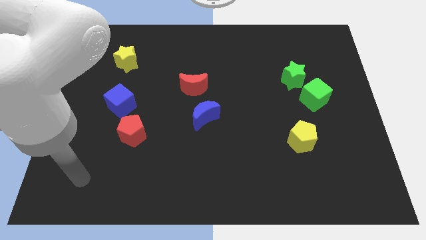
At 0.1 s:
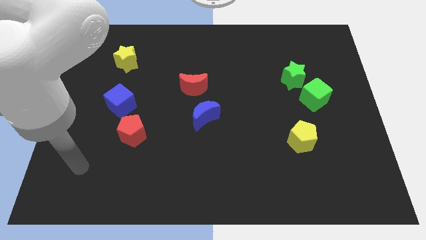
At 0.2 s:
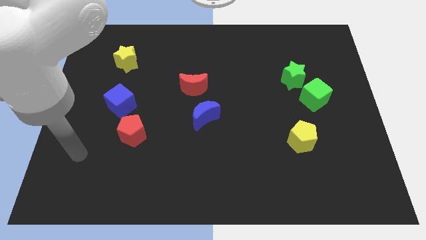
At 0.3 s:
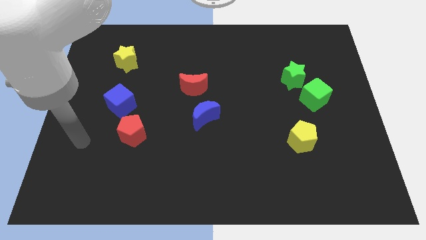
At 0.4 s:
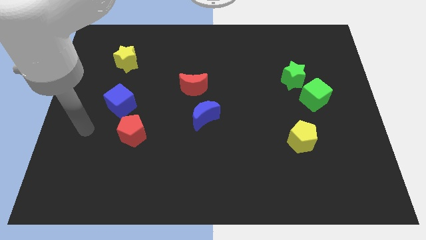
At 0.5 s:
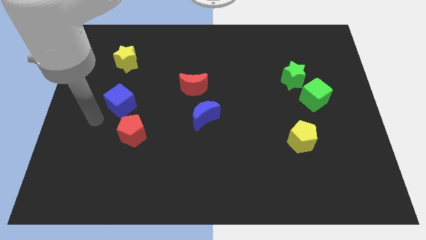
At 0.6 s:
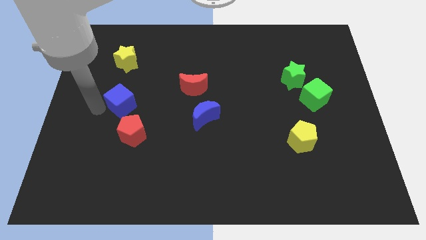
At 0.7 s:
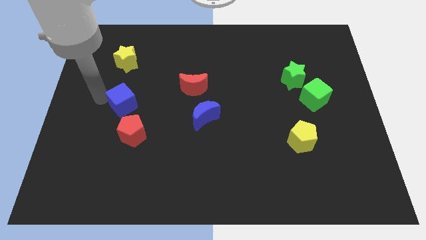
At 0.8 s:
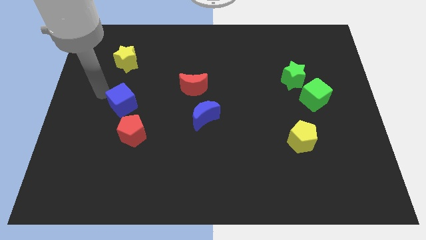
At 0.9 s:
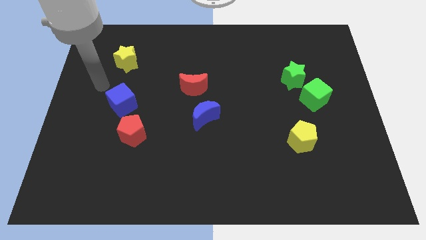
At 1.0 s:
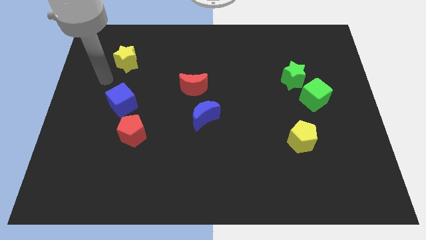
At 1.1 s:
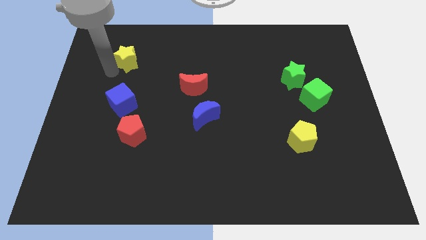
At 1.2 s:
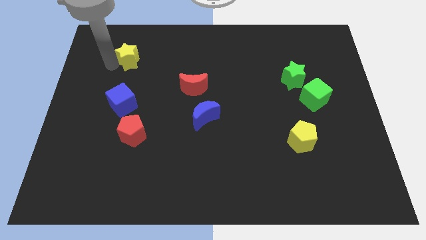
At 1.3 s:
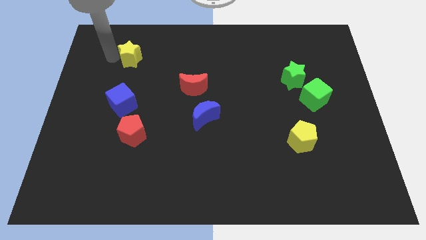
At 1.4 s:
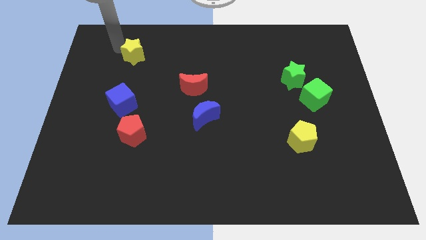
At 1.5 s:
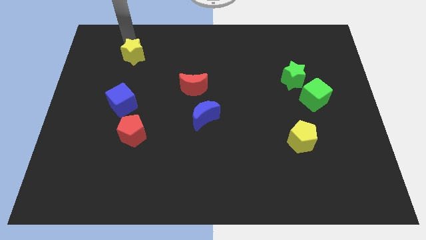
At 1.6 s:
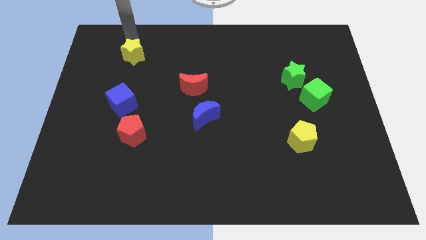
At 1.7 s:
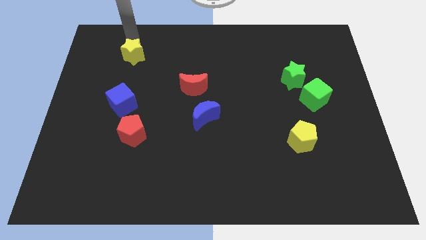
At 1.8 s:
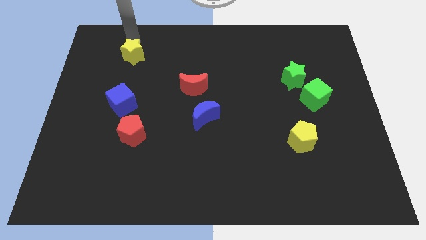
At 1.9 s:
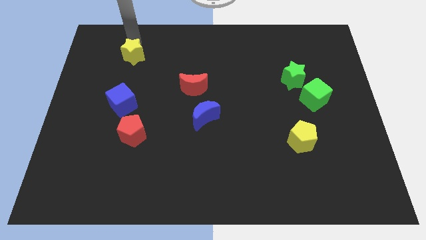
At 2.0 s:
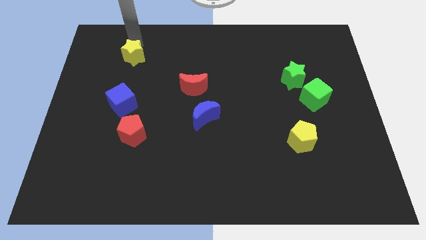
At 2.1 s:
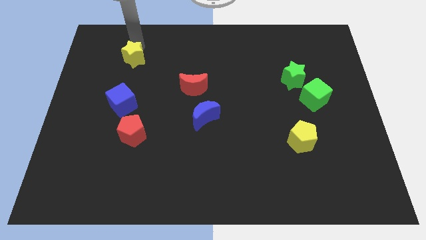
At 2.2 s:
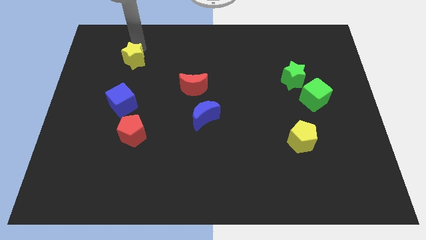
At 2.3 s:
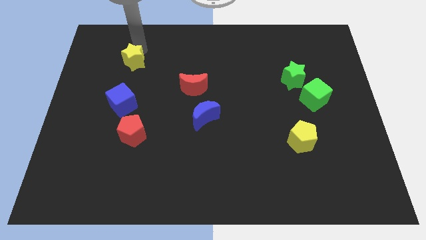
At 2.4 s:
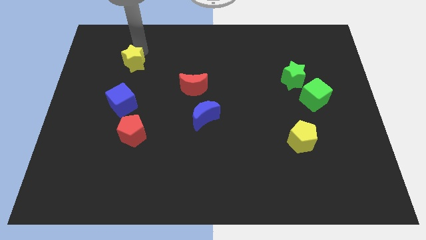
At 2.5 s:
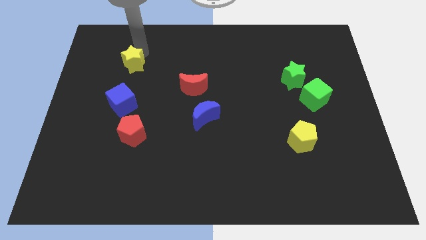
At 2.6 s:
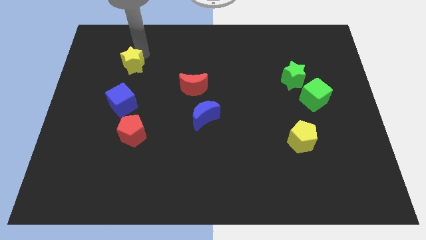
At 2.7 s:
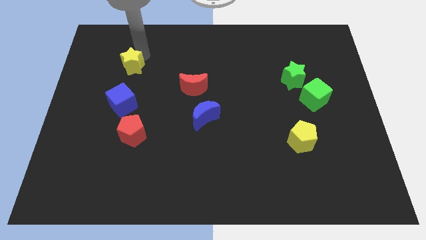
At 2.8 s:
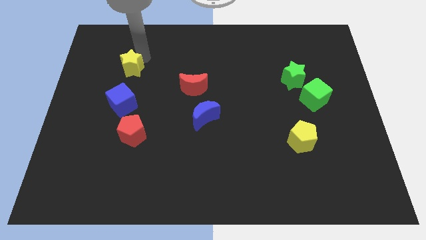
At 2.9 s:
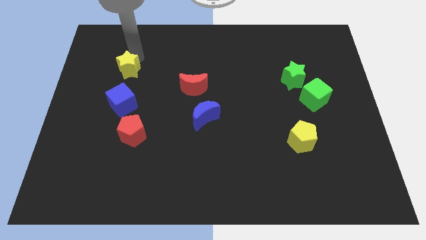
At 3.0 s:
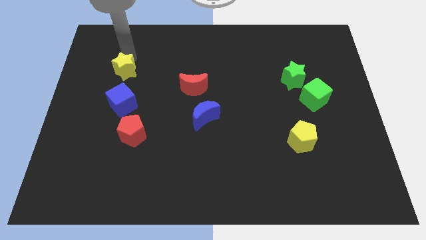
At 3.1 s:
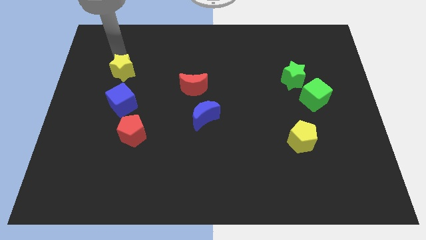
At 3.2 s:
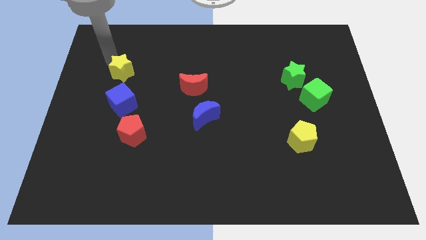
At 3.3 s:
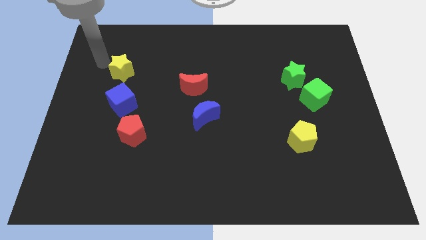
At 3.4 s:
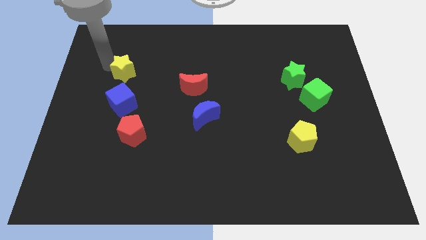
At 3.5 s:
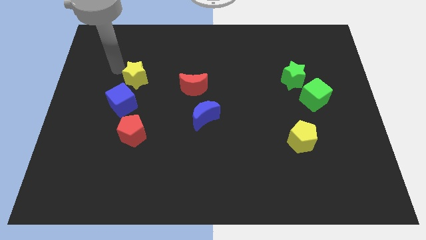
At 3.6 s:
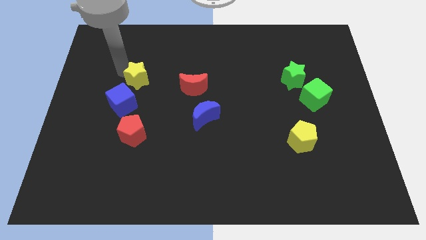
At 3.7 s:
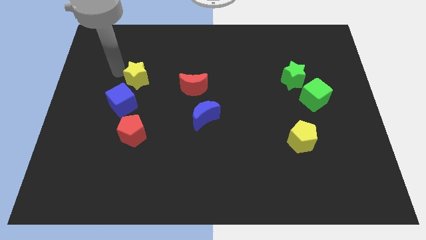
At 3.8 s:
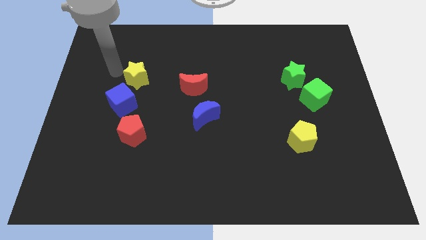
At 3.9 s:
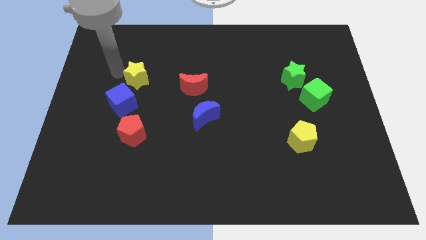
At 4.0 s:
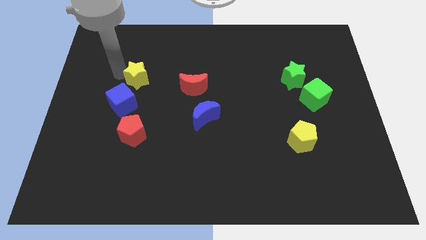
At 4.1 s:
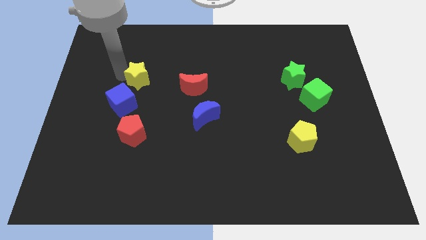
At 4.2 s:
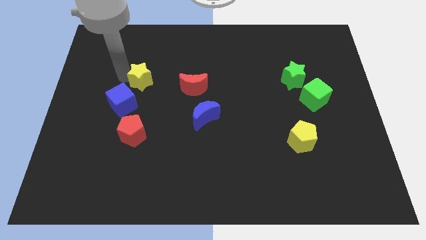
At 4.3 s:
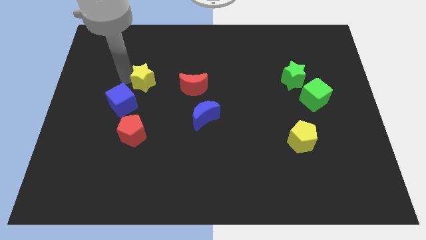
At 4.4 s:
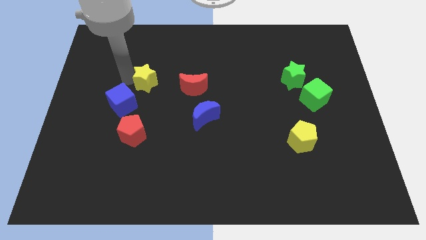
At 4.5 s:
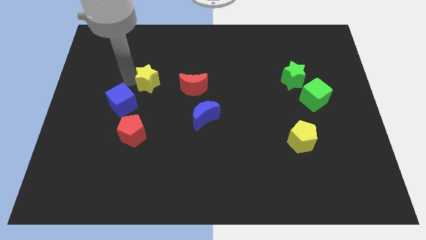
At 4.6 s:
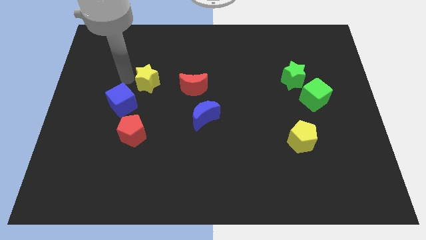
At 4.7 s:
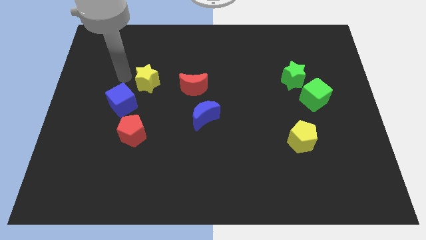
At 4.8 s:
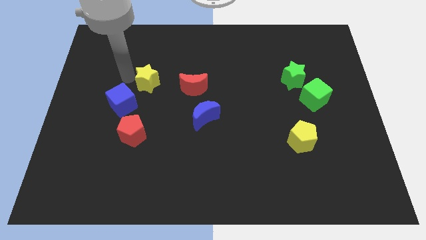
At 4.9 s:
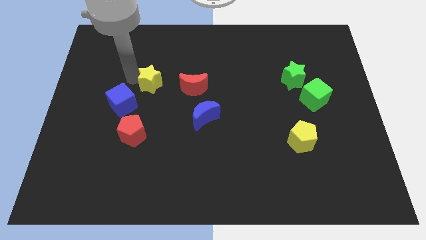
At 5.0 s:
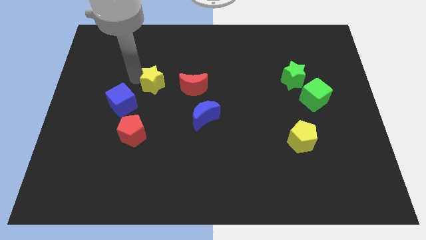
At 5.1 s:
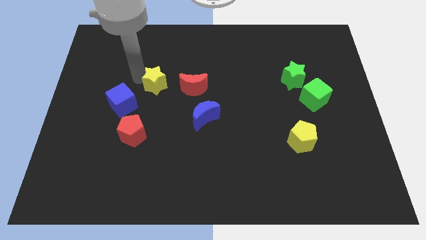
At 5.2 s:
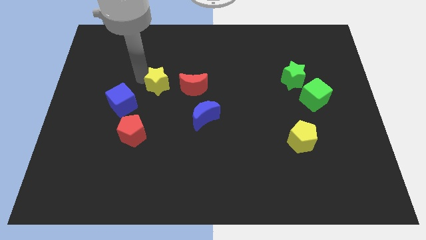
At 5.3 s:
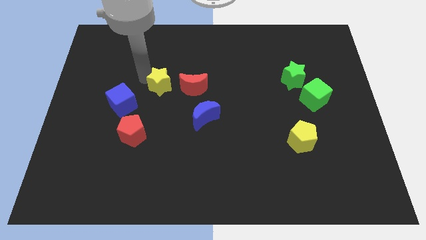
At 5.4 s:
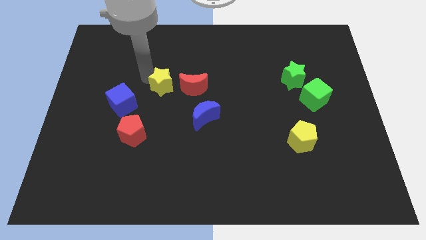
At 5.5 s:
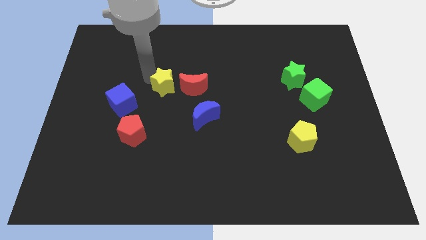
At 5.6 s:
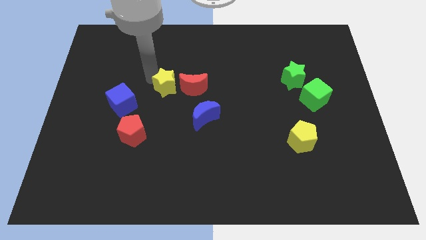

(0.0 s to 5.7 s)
slide the yellow star to the middle

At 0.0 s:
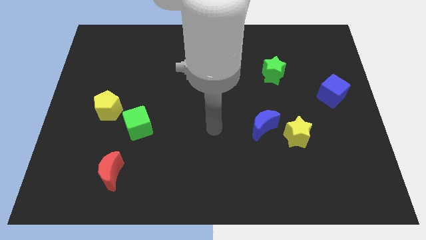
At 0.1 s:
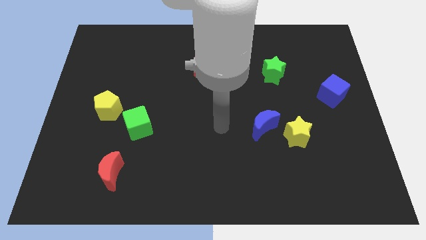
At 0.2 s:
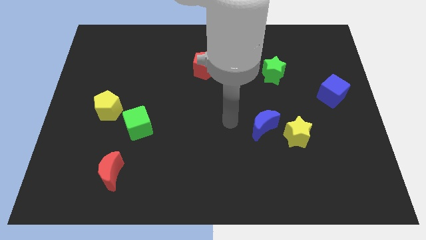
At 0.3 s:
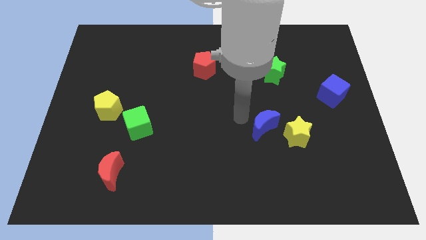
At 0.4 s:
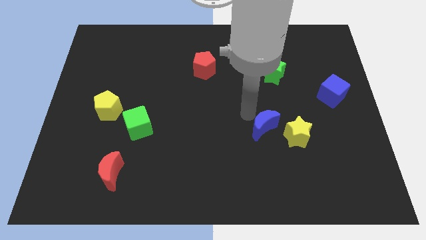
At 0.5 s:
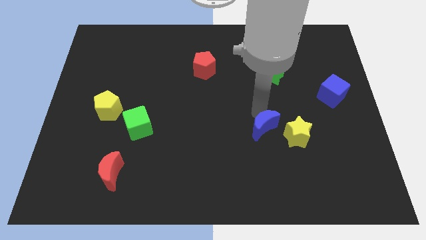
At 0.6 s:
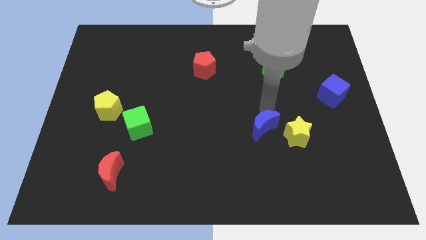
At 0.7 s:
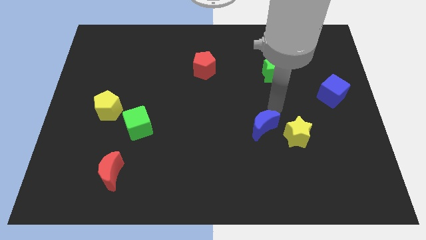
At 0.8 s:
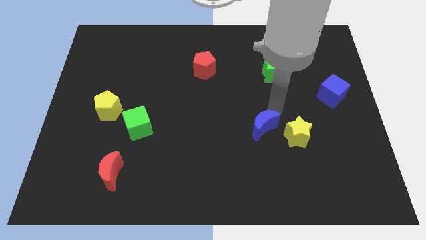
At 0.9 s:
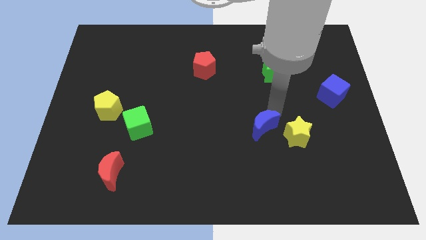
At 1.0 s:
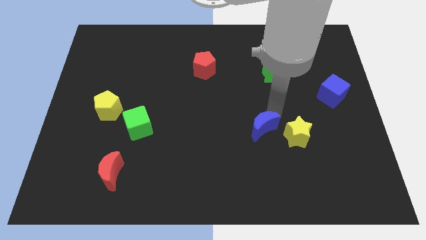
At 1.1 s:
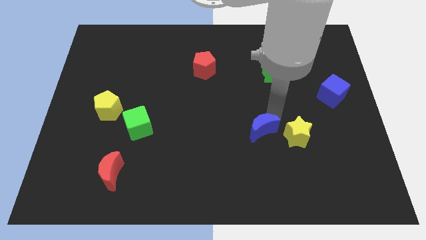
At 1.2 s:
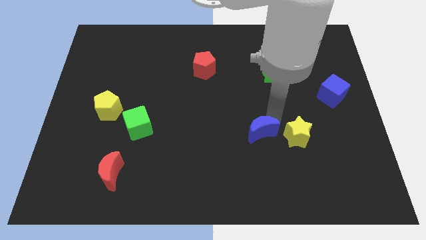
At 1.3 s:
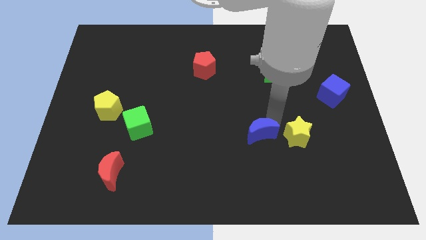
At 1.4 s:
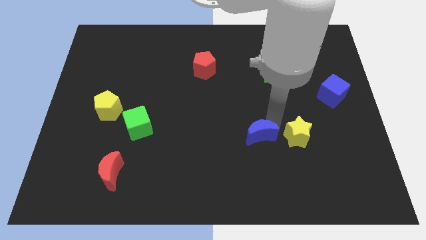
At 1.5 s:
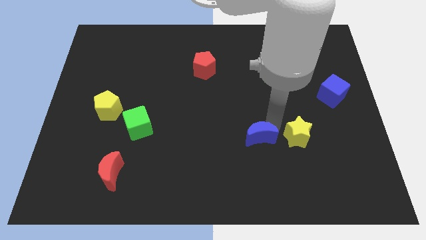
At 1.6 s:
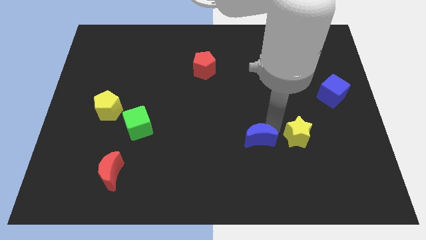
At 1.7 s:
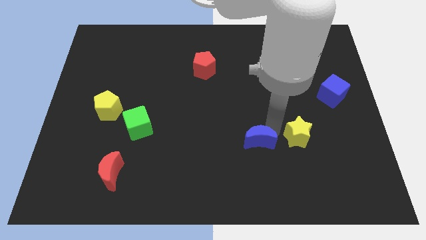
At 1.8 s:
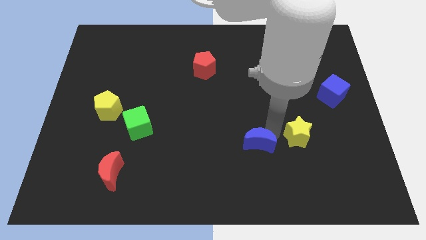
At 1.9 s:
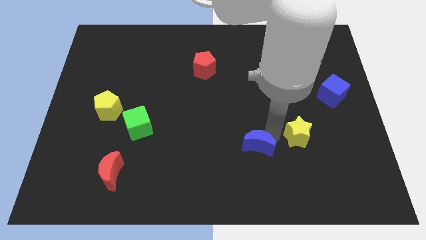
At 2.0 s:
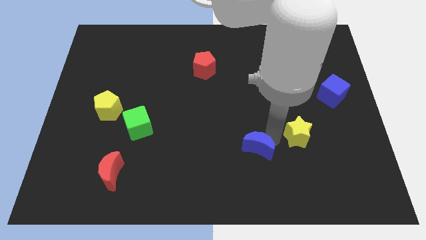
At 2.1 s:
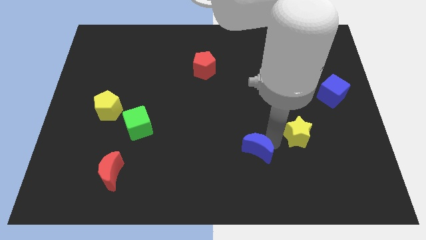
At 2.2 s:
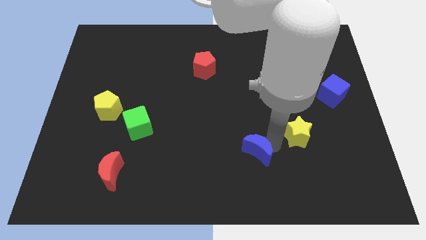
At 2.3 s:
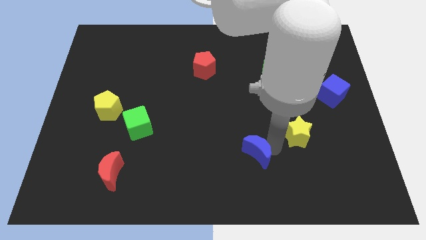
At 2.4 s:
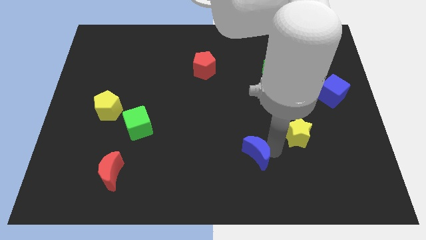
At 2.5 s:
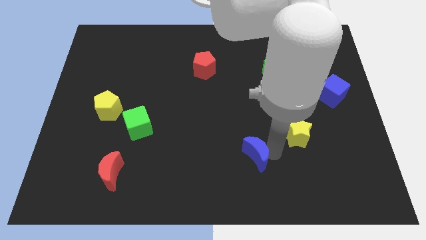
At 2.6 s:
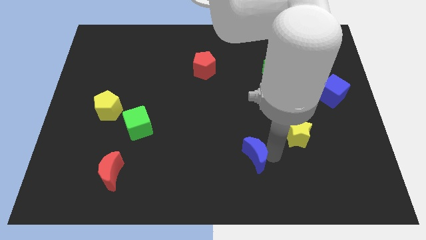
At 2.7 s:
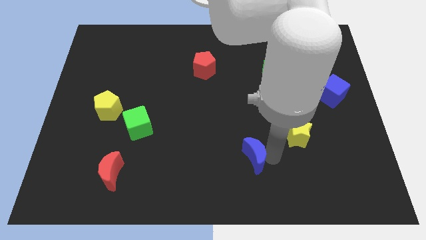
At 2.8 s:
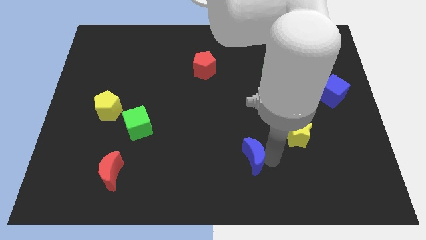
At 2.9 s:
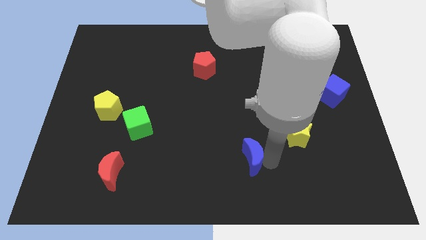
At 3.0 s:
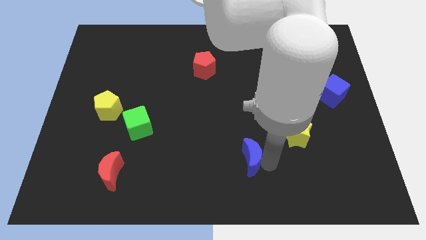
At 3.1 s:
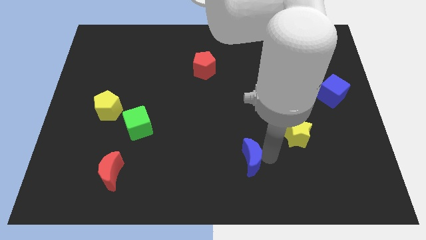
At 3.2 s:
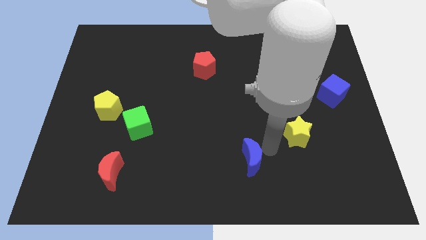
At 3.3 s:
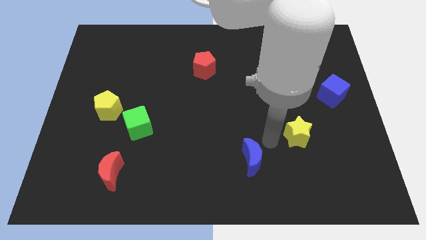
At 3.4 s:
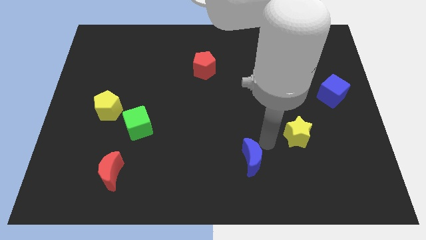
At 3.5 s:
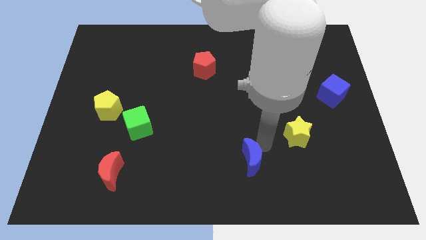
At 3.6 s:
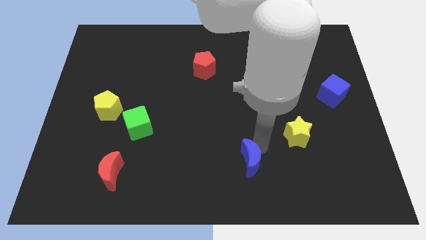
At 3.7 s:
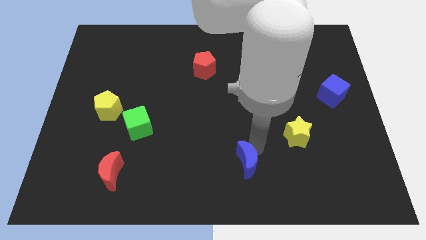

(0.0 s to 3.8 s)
slide the blue moon to the bottom
